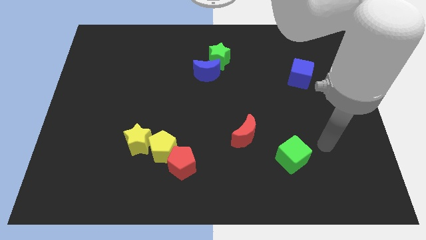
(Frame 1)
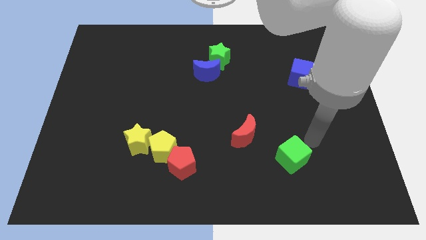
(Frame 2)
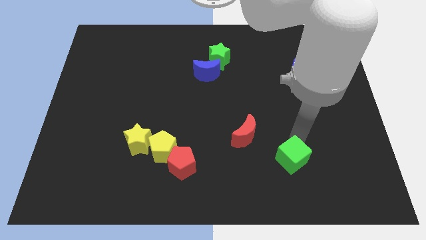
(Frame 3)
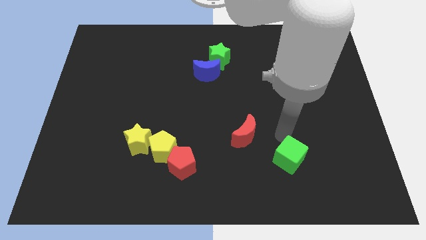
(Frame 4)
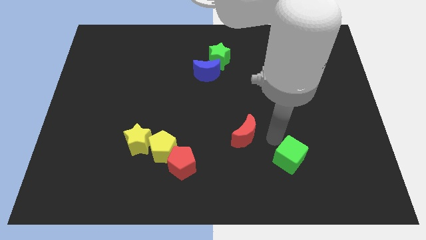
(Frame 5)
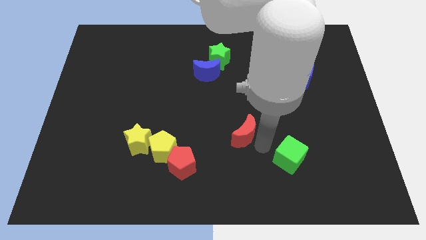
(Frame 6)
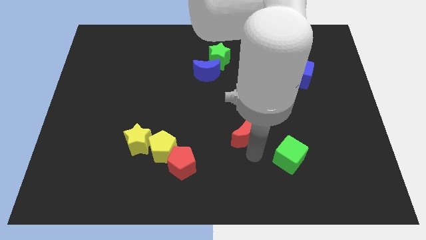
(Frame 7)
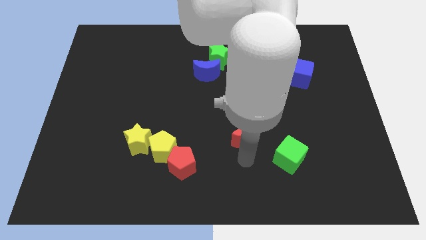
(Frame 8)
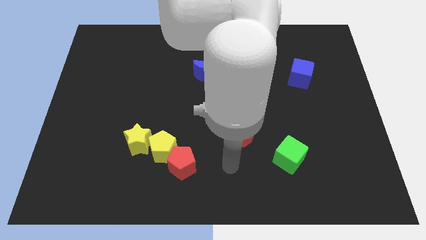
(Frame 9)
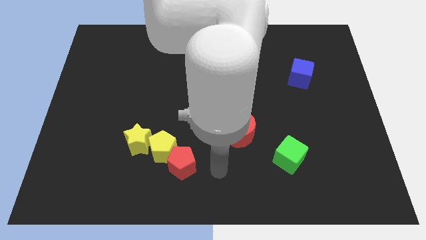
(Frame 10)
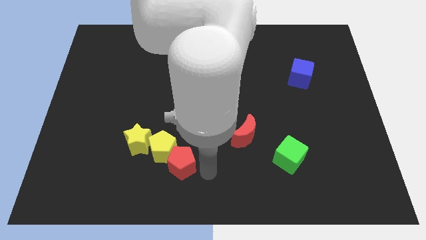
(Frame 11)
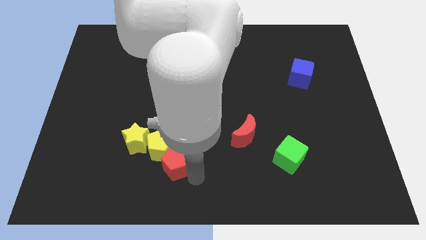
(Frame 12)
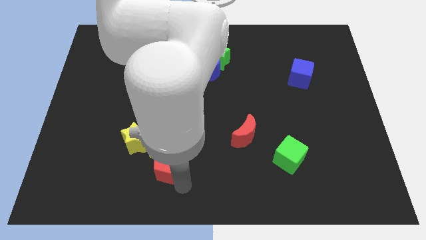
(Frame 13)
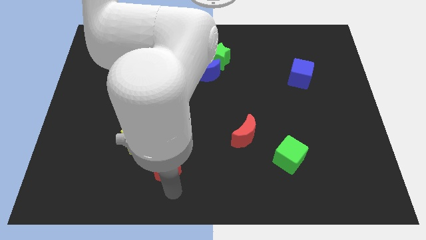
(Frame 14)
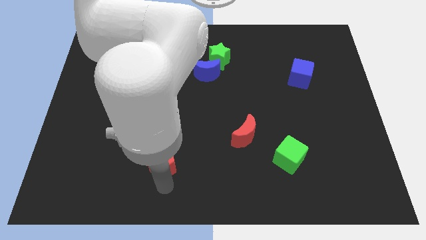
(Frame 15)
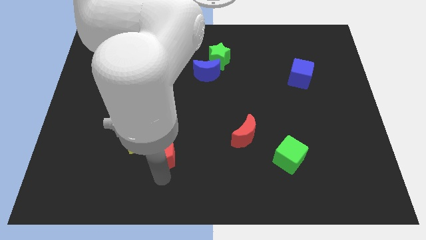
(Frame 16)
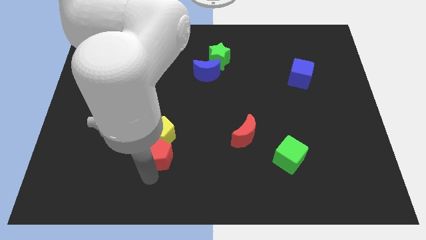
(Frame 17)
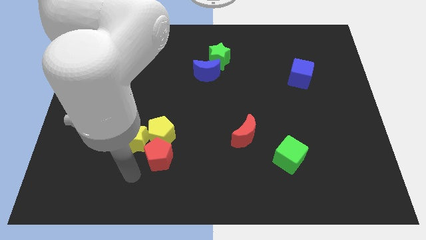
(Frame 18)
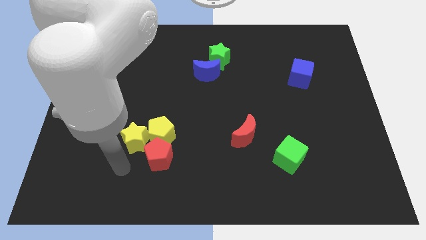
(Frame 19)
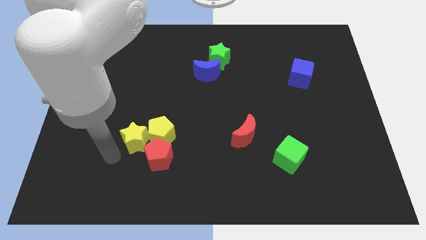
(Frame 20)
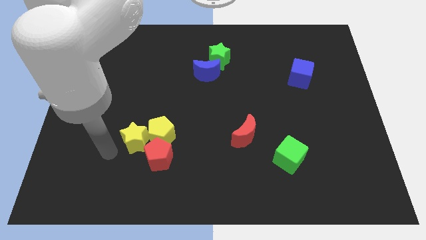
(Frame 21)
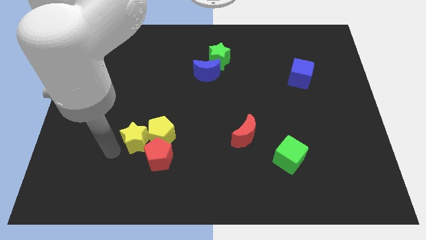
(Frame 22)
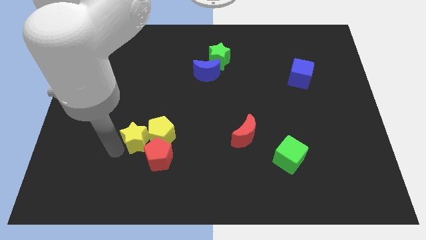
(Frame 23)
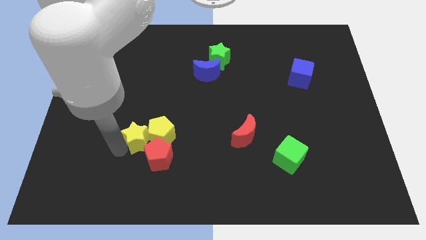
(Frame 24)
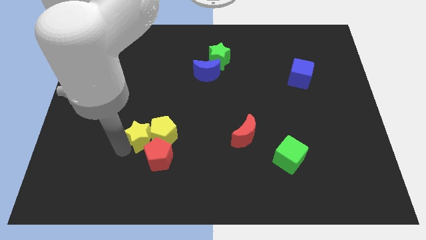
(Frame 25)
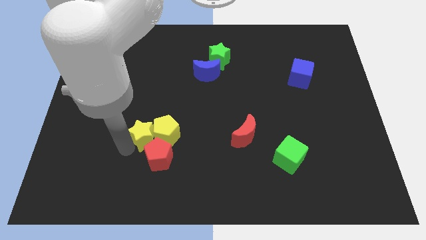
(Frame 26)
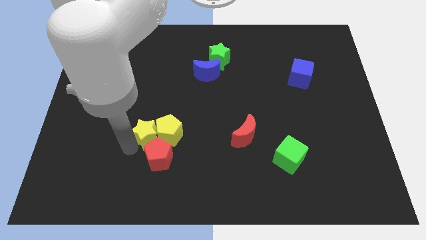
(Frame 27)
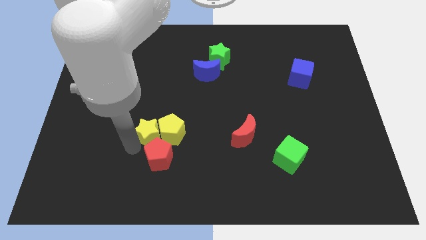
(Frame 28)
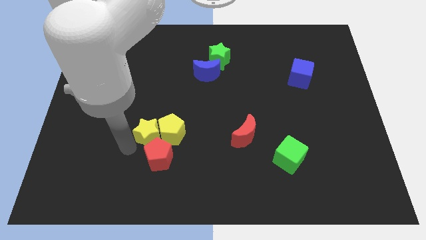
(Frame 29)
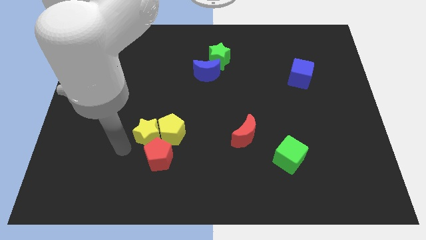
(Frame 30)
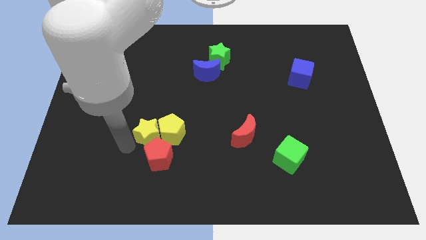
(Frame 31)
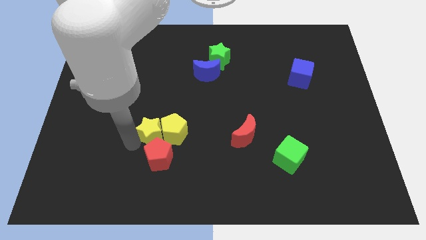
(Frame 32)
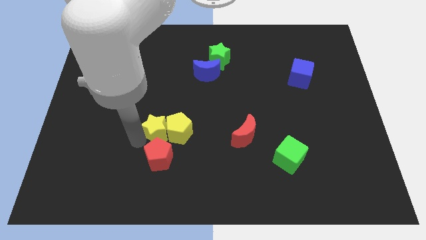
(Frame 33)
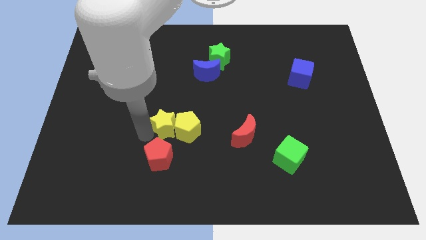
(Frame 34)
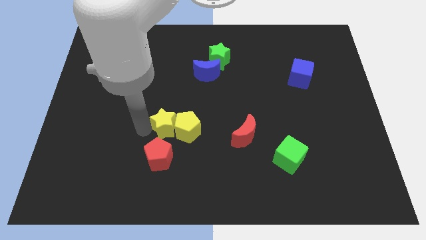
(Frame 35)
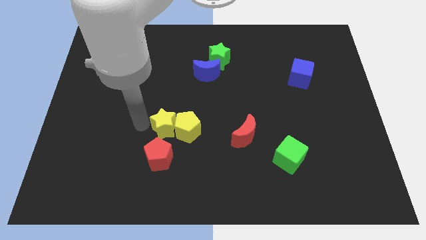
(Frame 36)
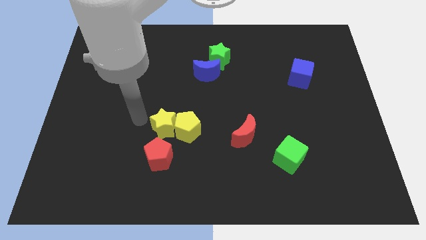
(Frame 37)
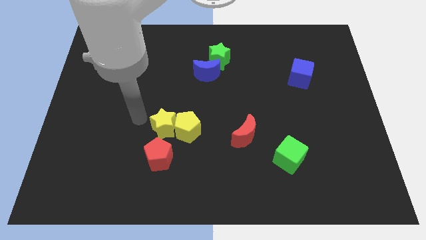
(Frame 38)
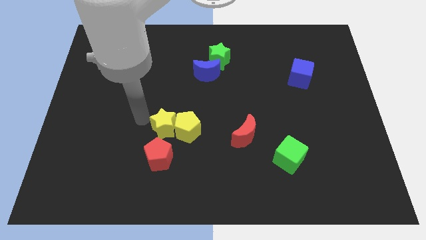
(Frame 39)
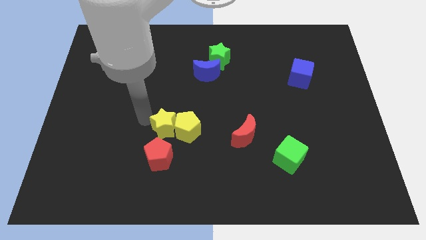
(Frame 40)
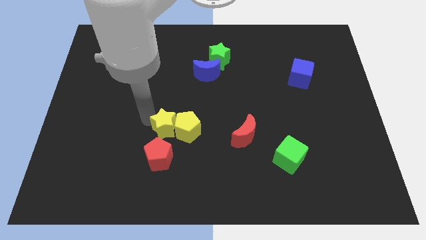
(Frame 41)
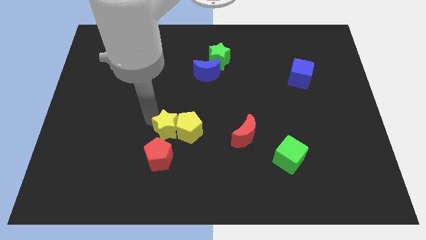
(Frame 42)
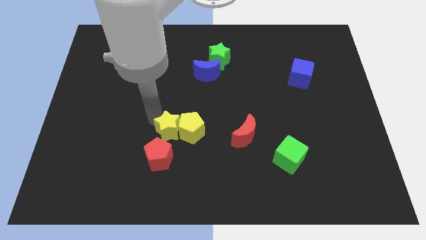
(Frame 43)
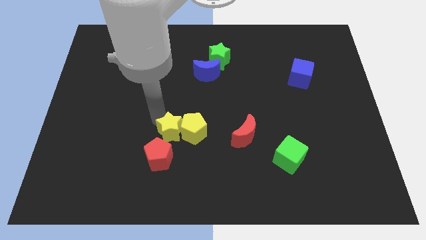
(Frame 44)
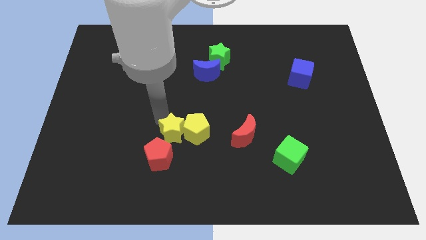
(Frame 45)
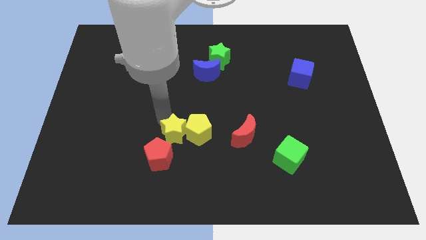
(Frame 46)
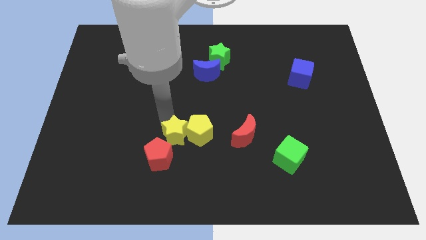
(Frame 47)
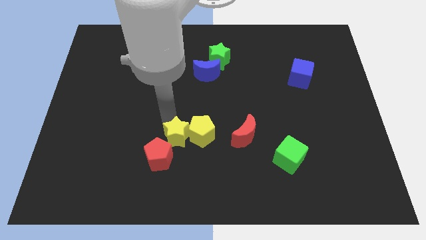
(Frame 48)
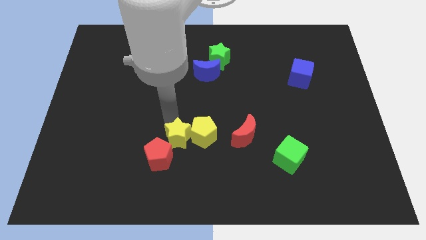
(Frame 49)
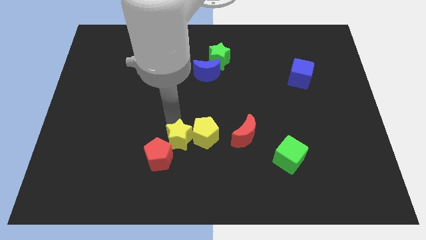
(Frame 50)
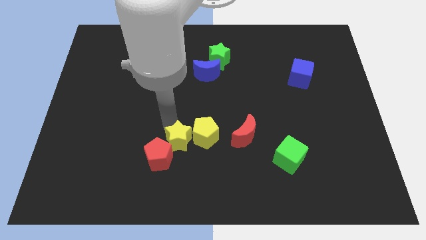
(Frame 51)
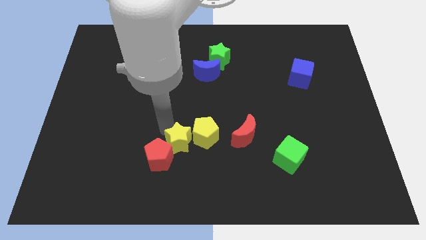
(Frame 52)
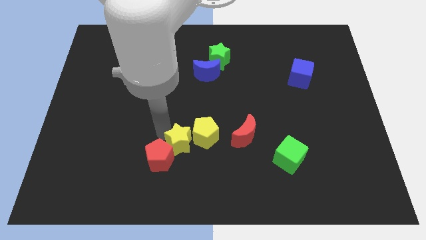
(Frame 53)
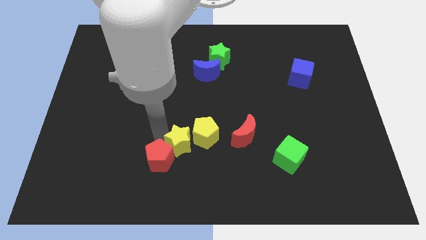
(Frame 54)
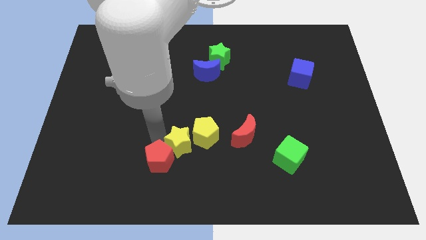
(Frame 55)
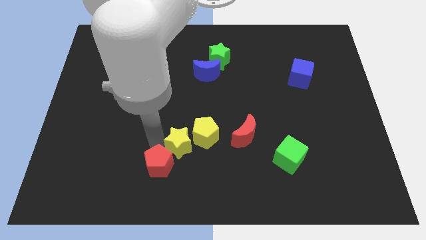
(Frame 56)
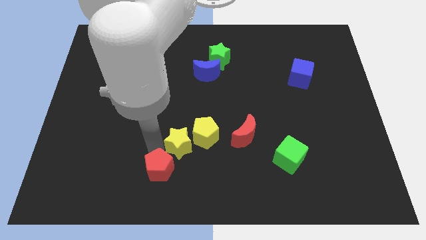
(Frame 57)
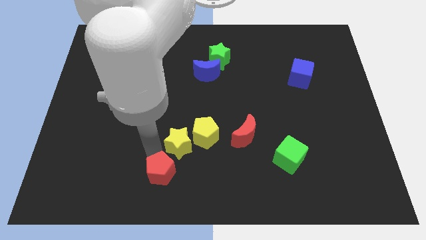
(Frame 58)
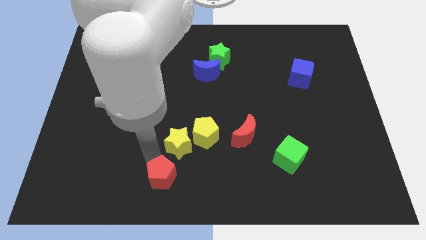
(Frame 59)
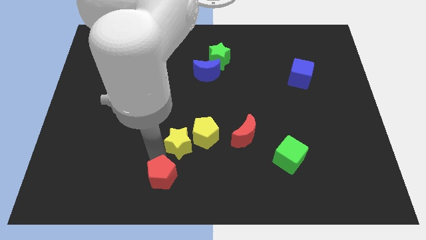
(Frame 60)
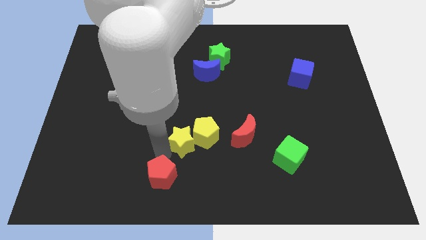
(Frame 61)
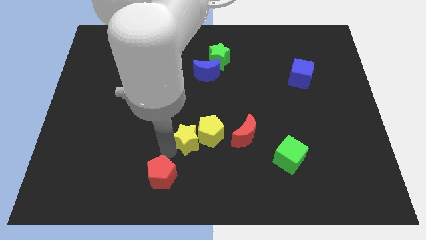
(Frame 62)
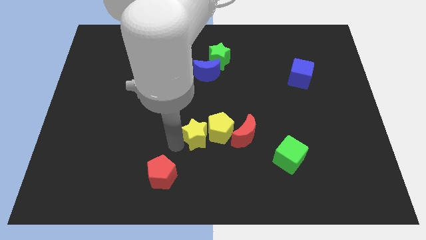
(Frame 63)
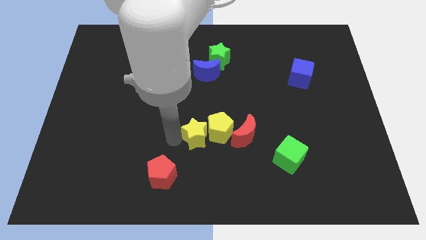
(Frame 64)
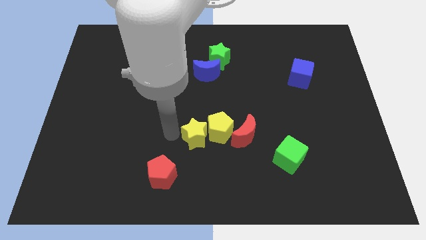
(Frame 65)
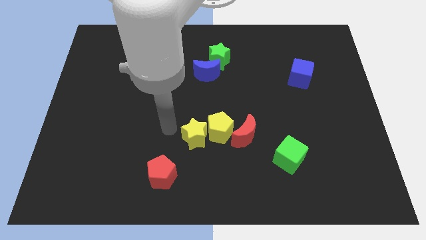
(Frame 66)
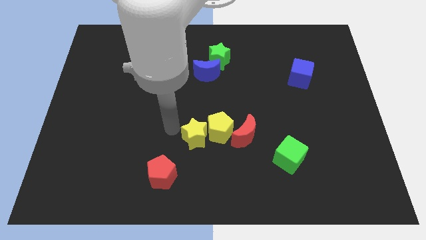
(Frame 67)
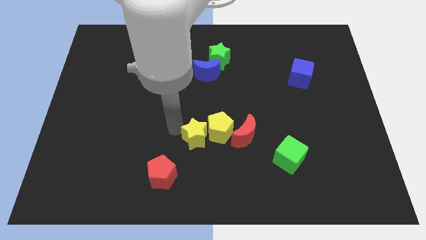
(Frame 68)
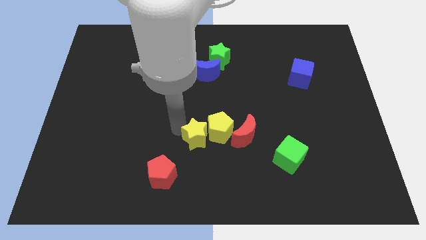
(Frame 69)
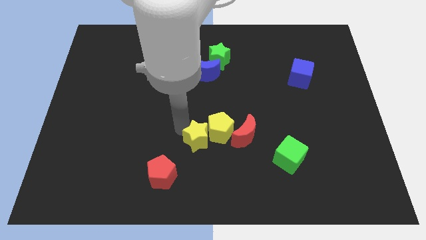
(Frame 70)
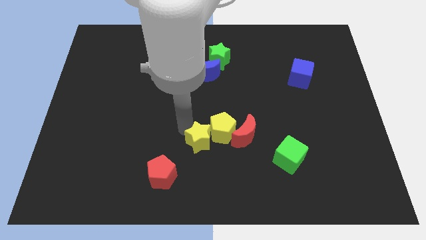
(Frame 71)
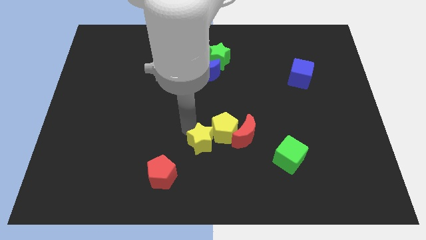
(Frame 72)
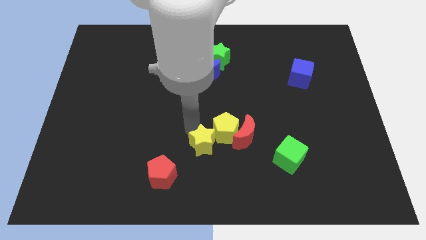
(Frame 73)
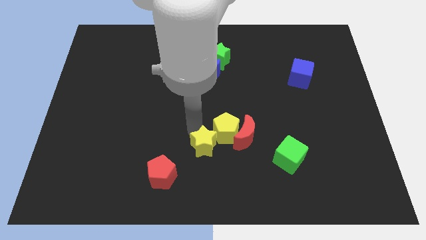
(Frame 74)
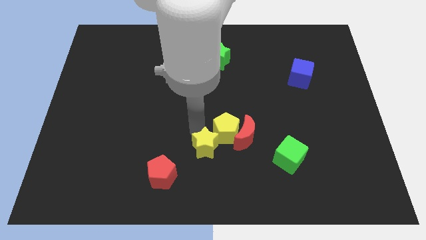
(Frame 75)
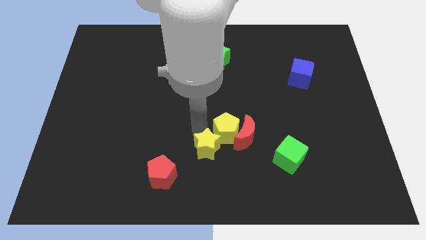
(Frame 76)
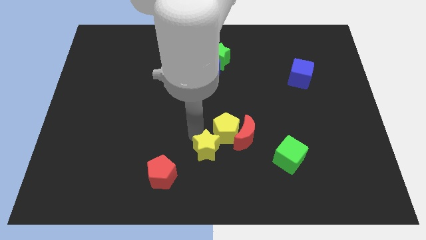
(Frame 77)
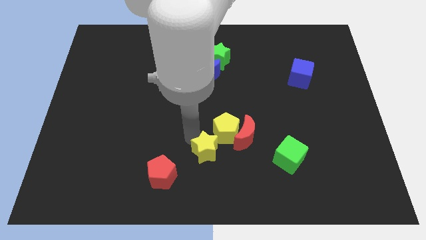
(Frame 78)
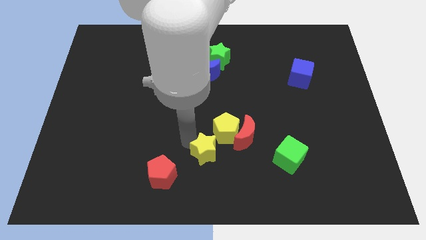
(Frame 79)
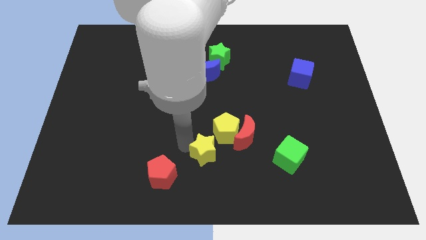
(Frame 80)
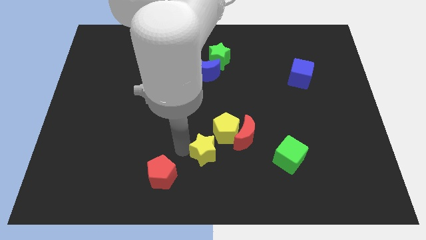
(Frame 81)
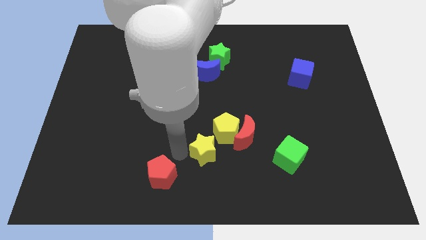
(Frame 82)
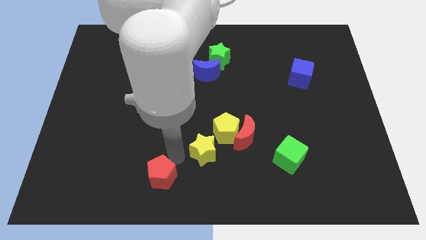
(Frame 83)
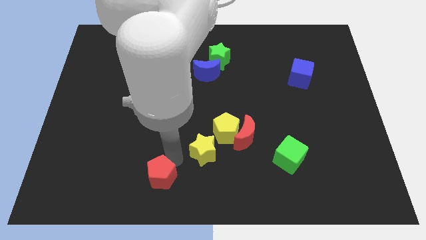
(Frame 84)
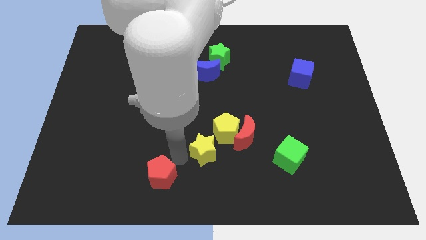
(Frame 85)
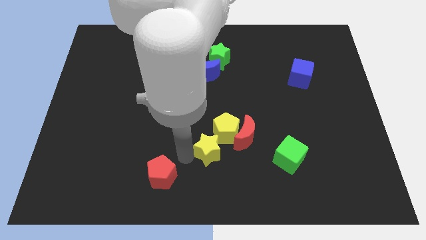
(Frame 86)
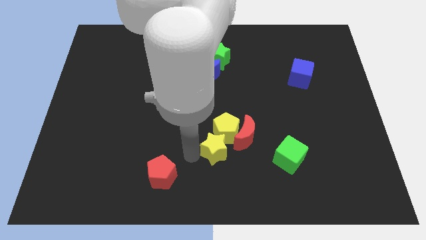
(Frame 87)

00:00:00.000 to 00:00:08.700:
push the yellow star to the left of the green cube
